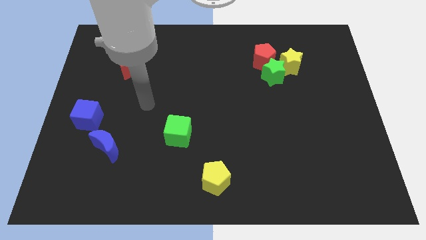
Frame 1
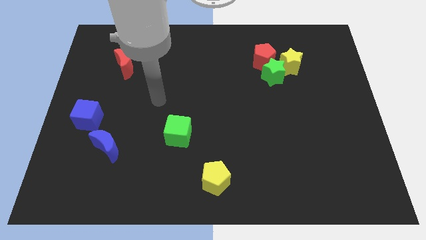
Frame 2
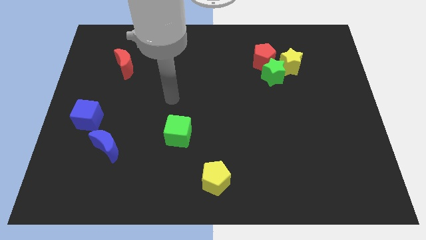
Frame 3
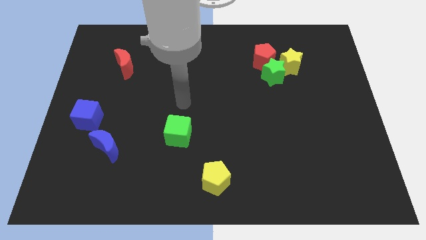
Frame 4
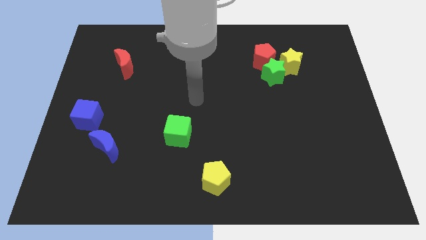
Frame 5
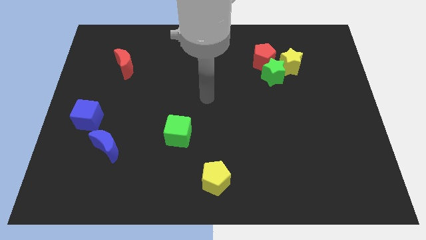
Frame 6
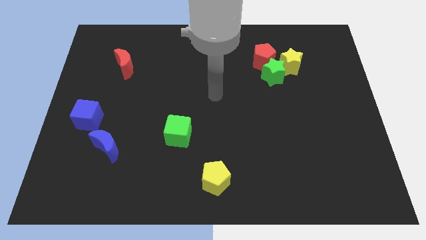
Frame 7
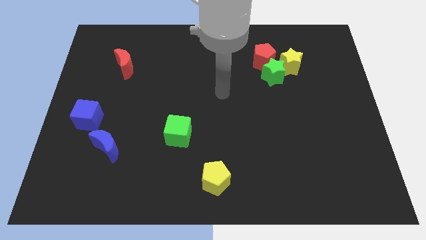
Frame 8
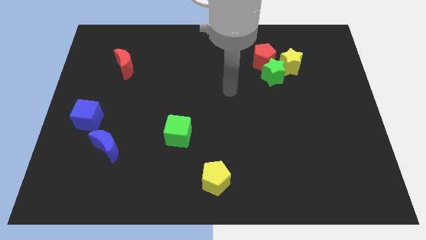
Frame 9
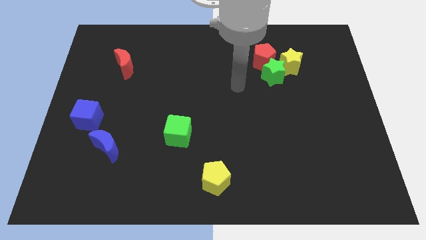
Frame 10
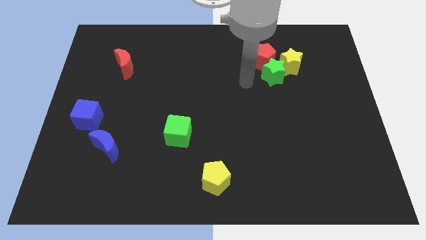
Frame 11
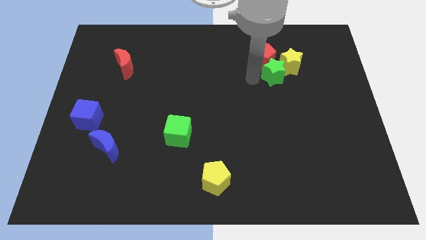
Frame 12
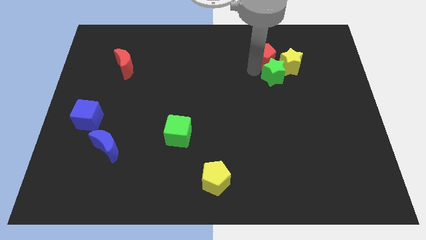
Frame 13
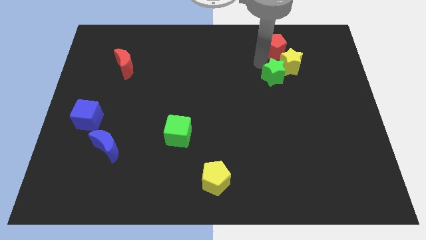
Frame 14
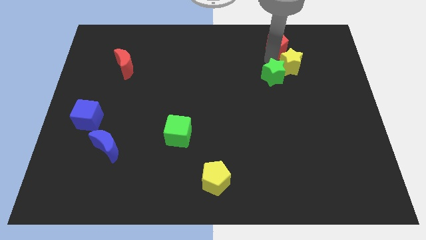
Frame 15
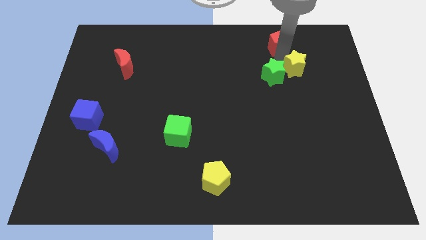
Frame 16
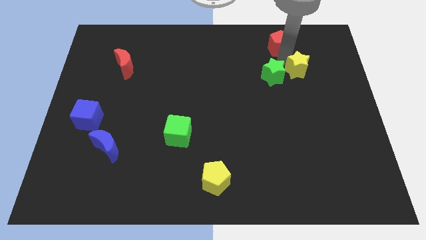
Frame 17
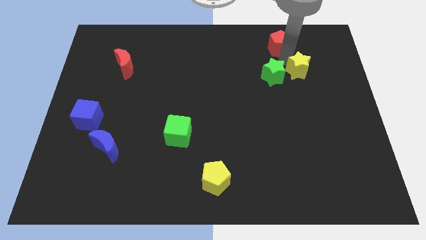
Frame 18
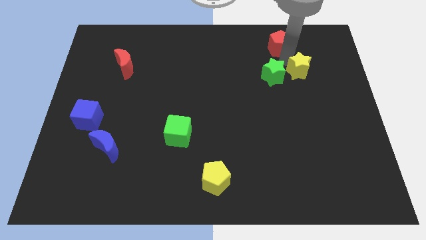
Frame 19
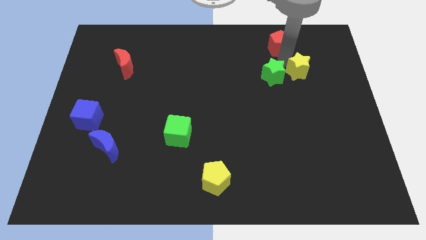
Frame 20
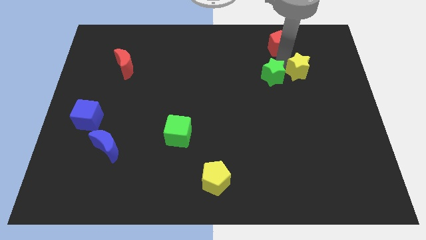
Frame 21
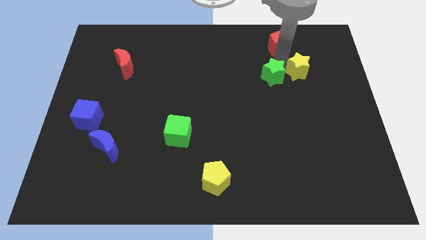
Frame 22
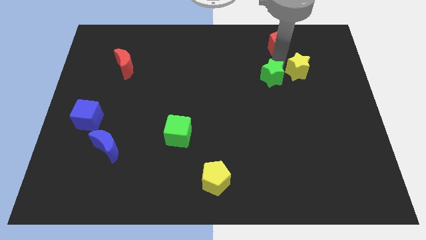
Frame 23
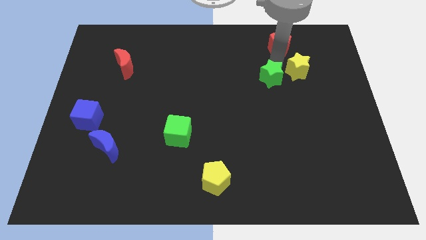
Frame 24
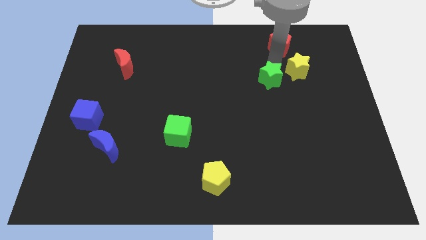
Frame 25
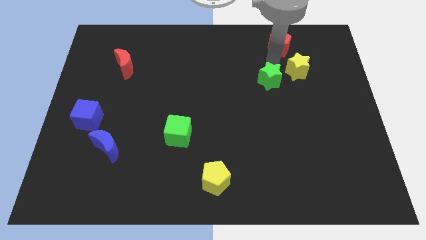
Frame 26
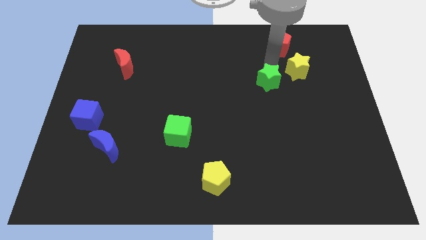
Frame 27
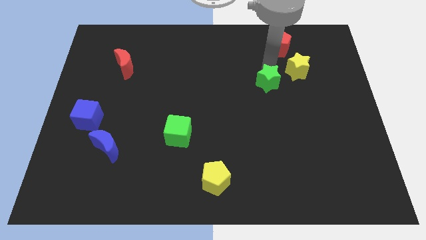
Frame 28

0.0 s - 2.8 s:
separate the green star from the red pentagon and yellow star

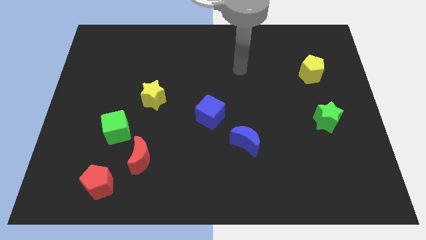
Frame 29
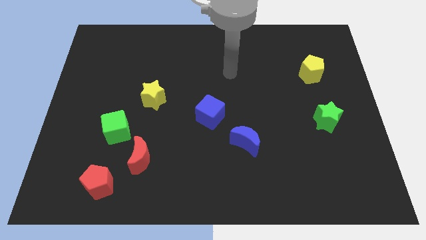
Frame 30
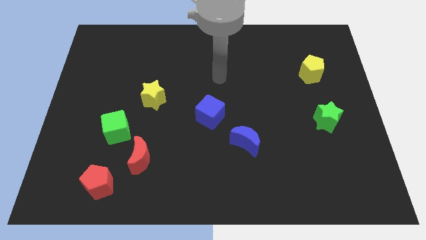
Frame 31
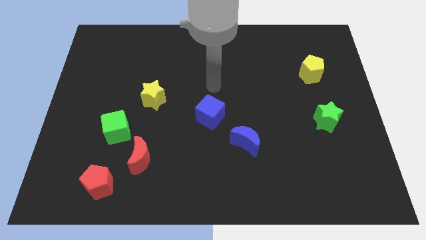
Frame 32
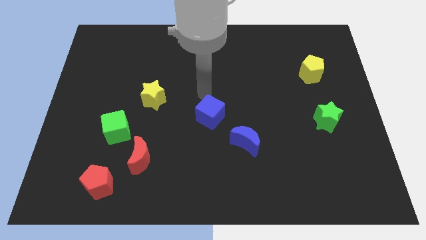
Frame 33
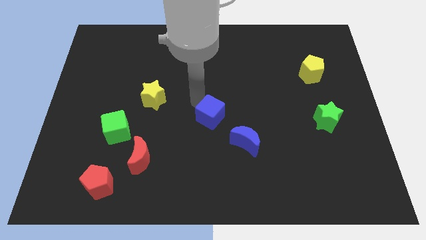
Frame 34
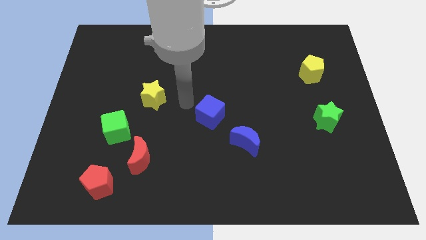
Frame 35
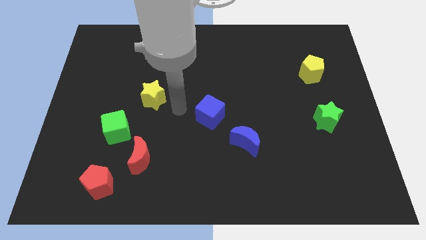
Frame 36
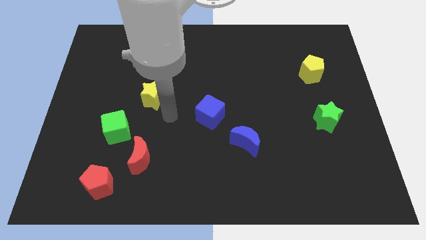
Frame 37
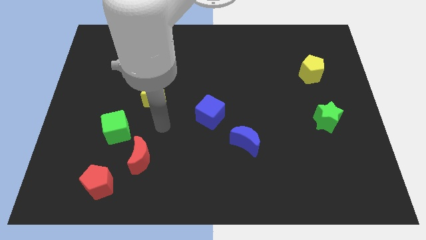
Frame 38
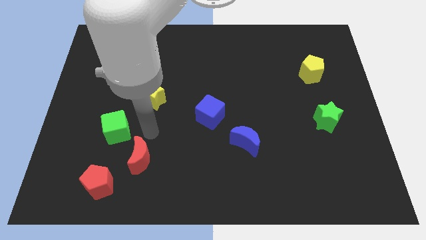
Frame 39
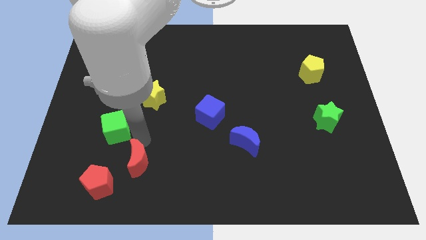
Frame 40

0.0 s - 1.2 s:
separate the green cube from the red moon

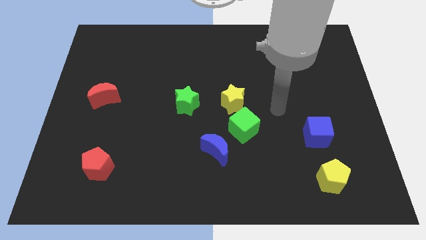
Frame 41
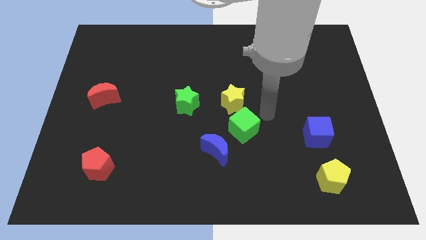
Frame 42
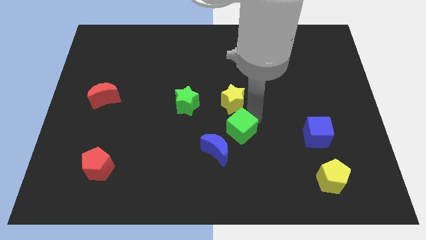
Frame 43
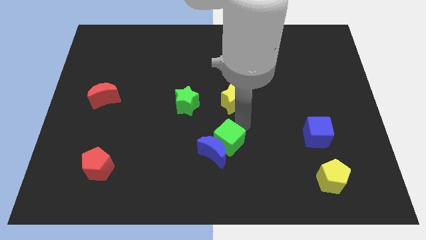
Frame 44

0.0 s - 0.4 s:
pull the yellow star apart from the green cube

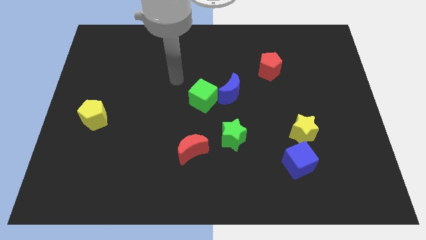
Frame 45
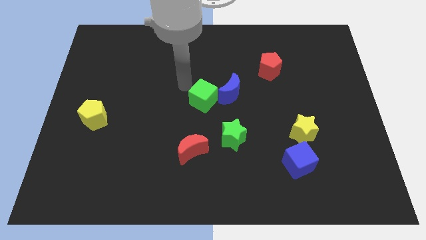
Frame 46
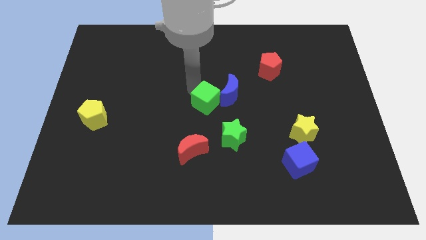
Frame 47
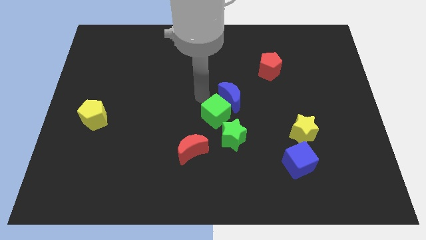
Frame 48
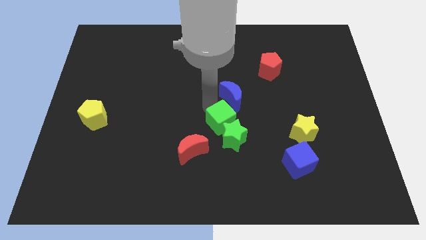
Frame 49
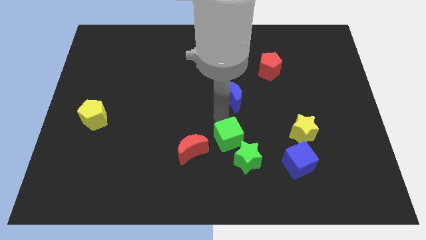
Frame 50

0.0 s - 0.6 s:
separate the blue moon from the green cube

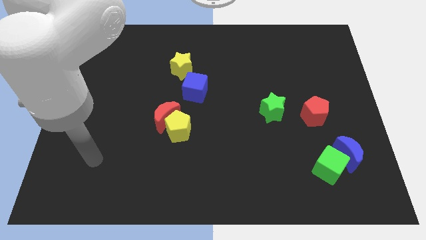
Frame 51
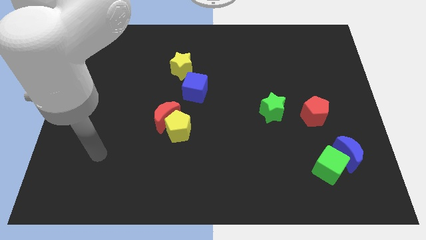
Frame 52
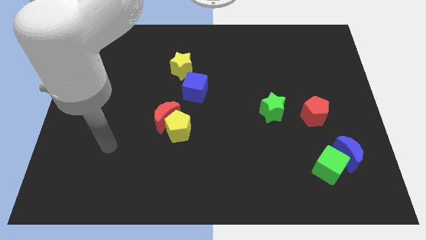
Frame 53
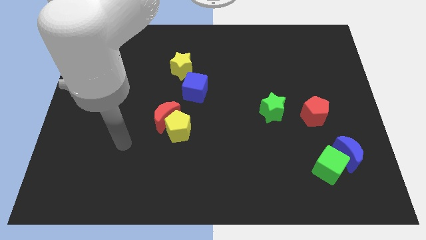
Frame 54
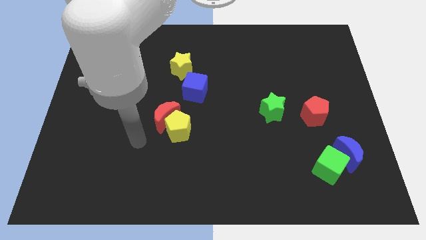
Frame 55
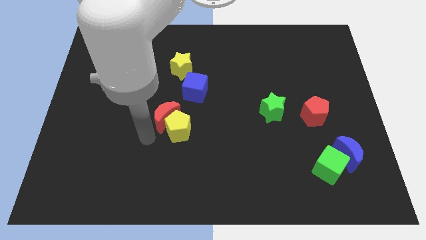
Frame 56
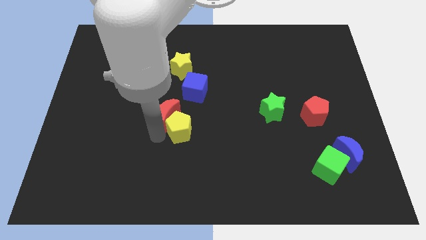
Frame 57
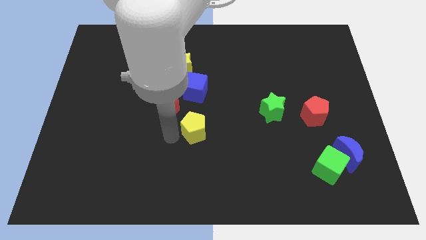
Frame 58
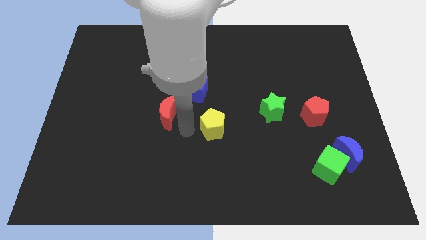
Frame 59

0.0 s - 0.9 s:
separate the red moon from the yellow pentagon

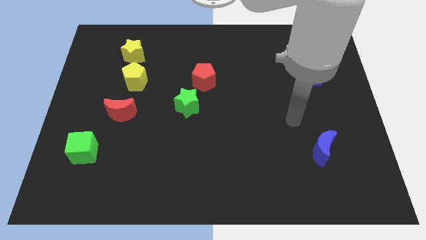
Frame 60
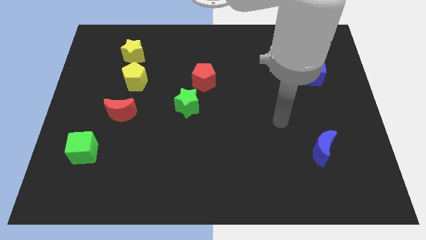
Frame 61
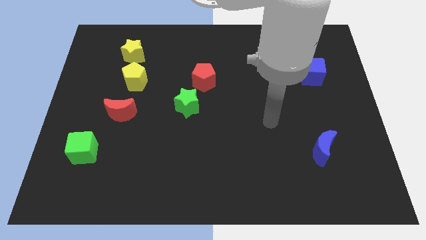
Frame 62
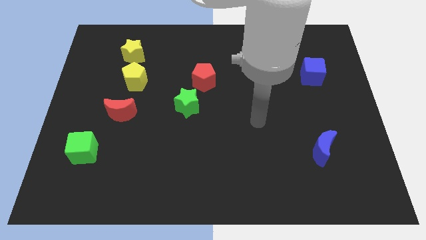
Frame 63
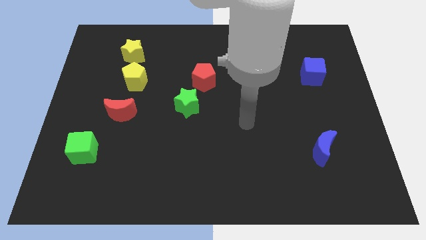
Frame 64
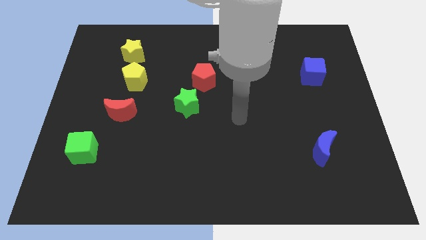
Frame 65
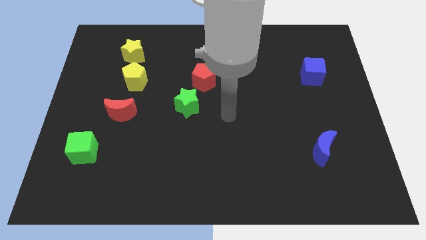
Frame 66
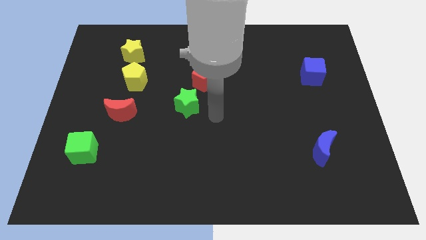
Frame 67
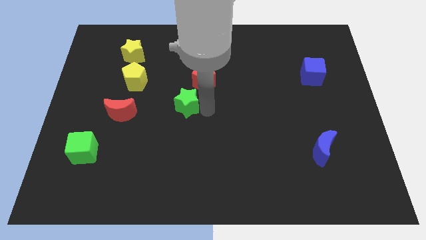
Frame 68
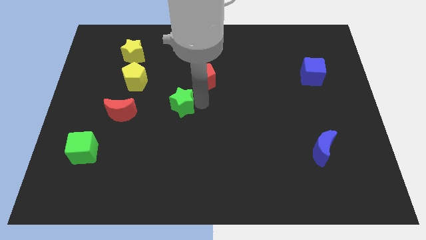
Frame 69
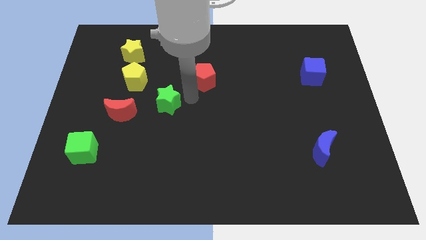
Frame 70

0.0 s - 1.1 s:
move the red pentagon away from the green star

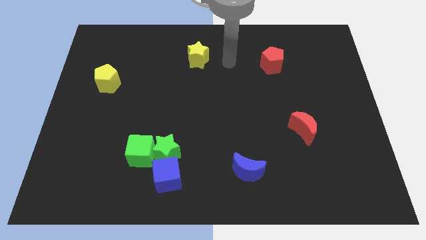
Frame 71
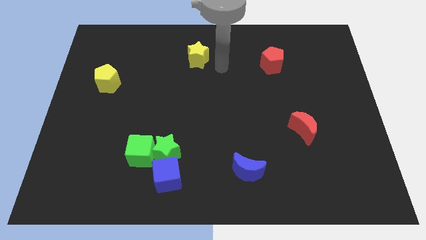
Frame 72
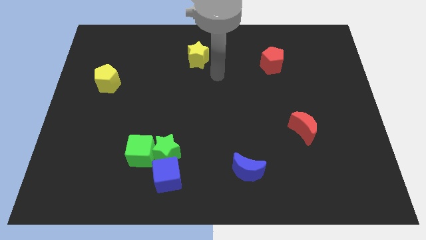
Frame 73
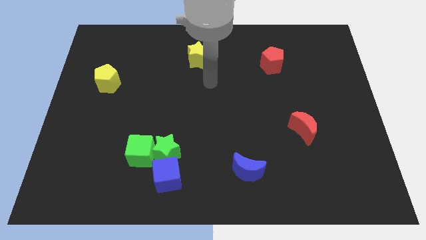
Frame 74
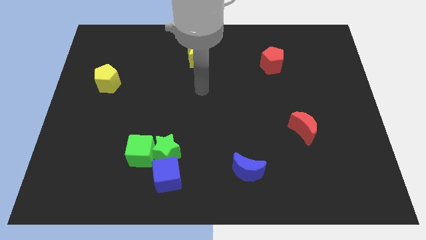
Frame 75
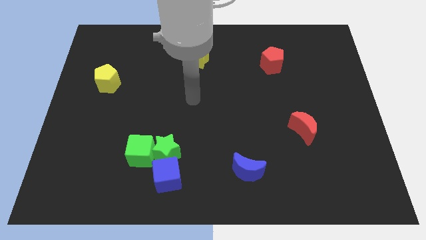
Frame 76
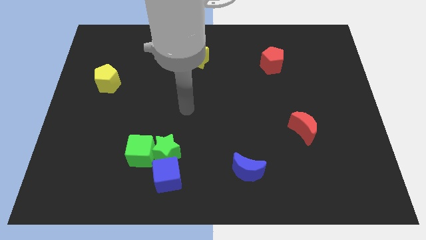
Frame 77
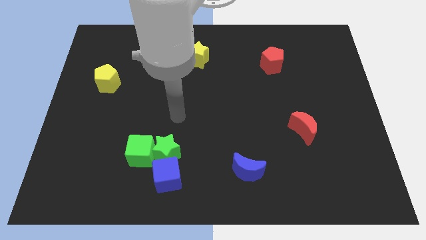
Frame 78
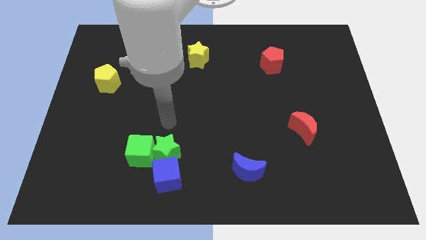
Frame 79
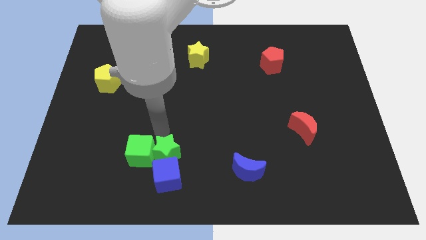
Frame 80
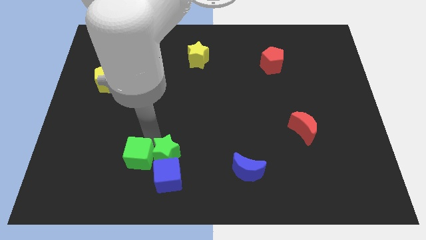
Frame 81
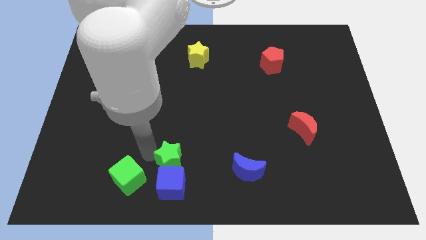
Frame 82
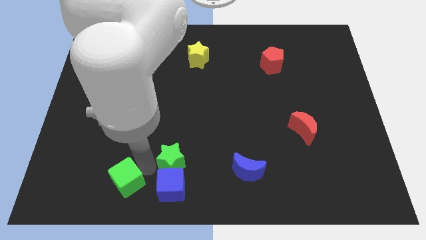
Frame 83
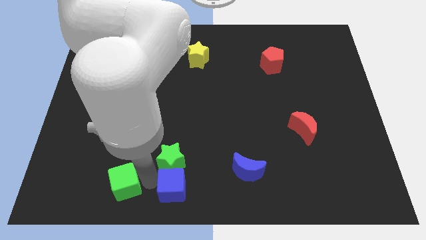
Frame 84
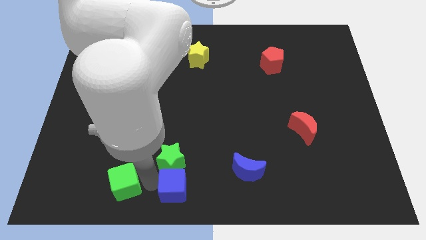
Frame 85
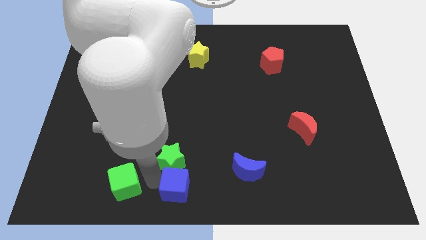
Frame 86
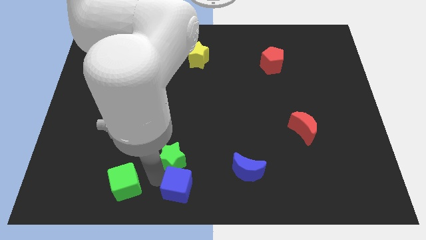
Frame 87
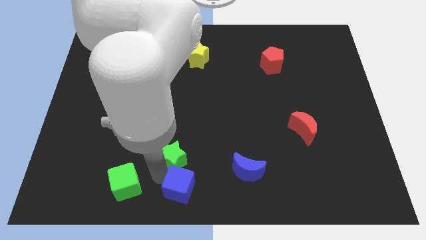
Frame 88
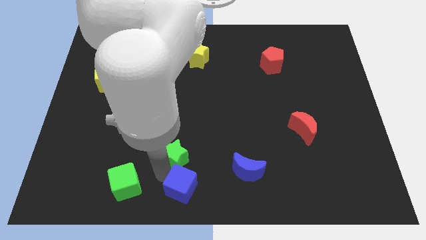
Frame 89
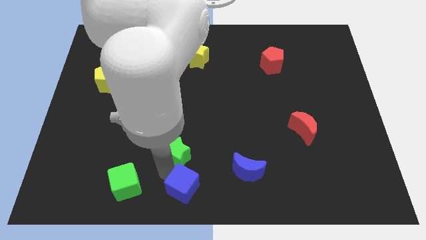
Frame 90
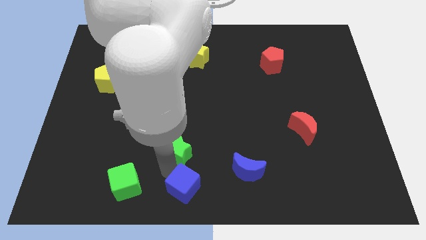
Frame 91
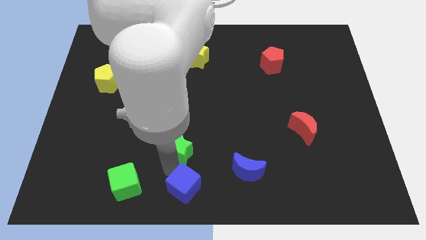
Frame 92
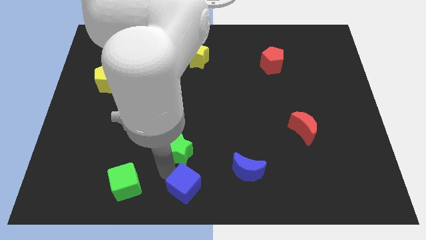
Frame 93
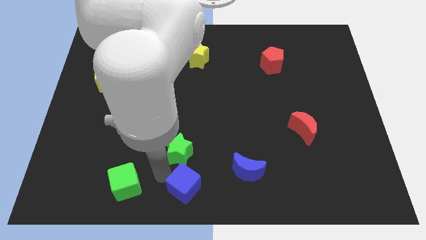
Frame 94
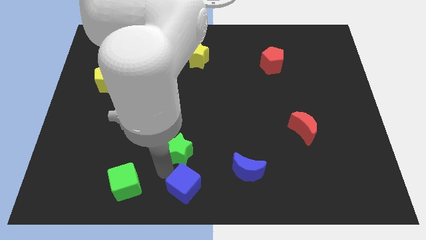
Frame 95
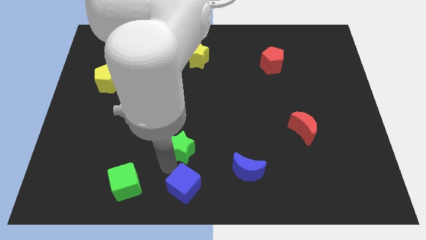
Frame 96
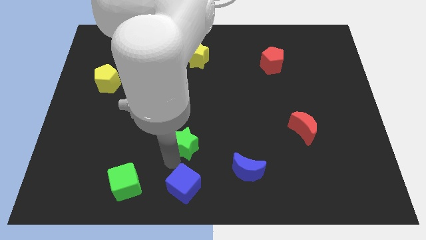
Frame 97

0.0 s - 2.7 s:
separate the green star from the green cube and blue cube
